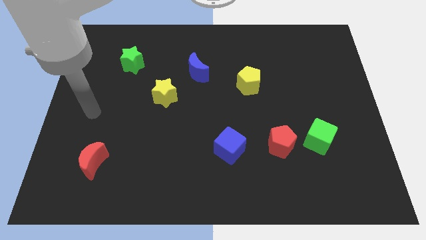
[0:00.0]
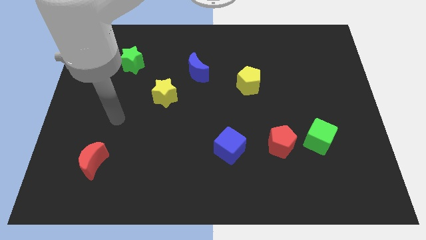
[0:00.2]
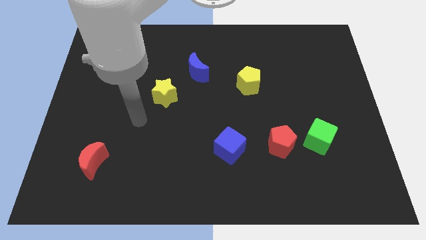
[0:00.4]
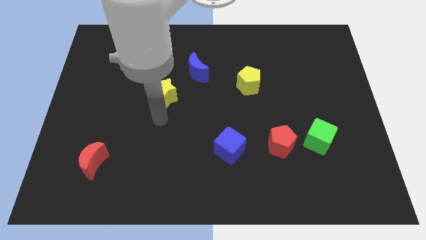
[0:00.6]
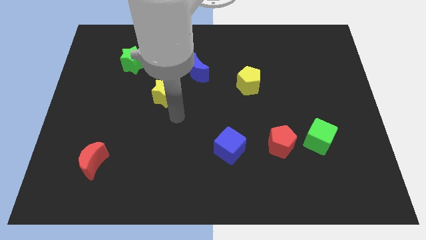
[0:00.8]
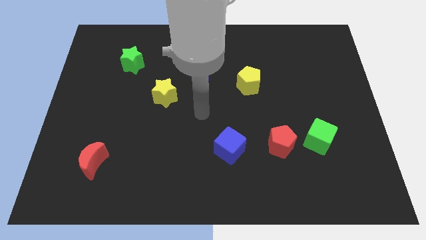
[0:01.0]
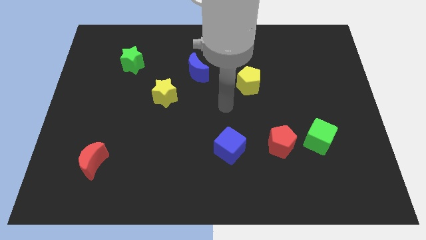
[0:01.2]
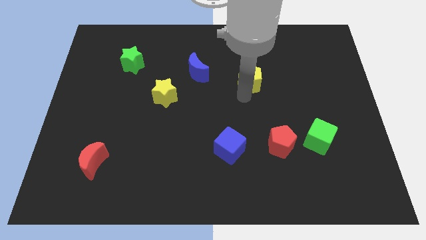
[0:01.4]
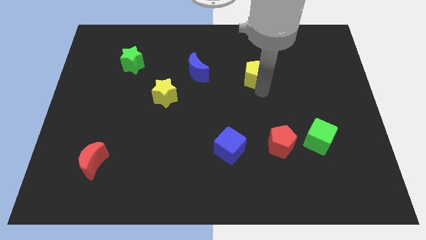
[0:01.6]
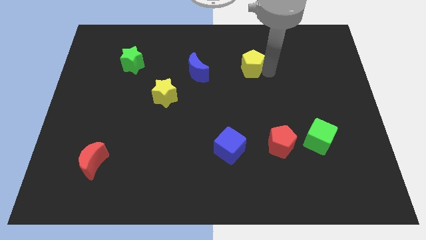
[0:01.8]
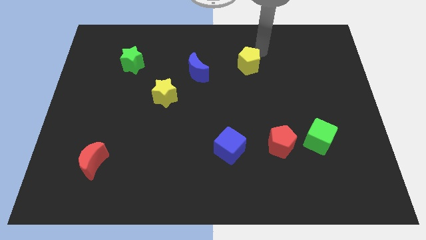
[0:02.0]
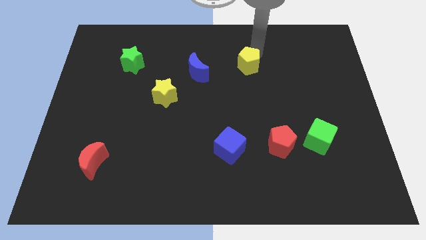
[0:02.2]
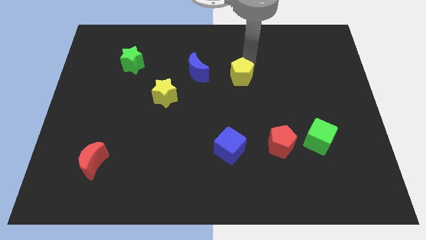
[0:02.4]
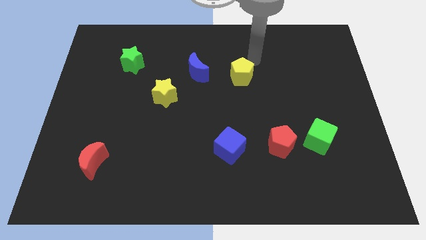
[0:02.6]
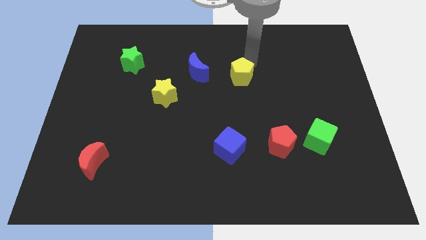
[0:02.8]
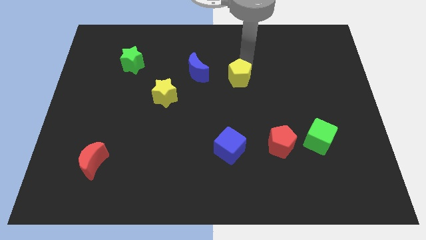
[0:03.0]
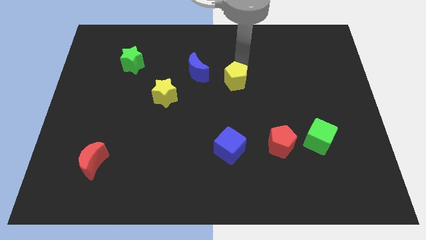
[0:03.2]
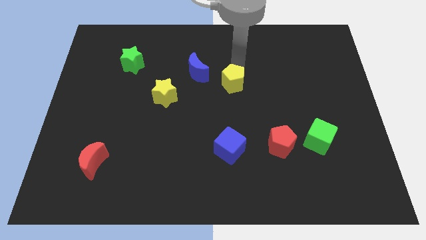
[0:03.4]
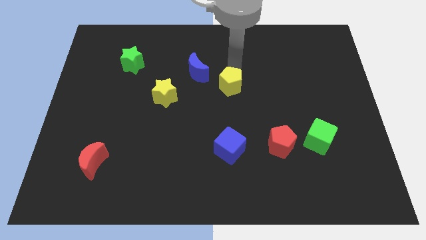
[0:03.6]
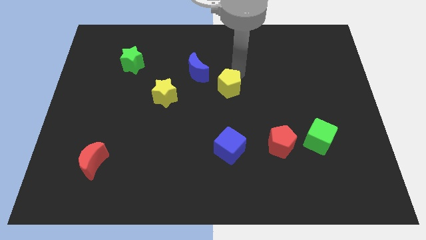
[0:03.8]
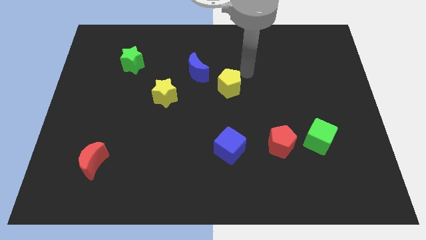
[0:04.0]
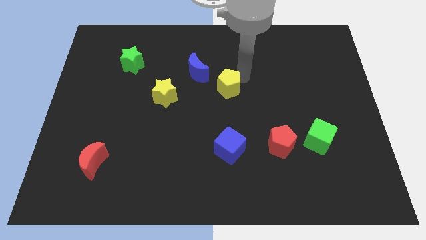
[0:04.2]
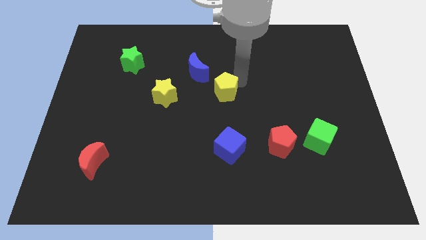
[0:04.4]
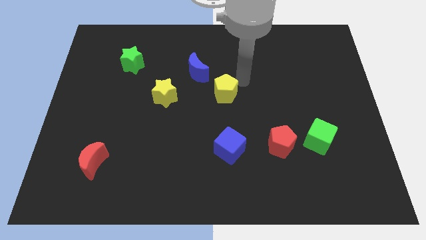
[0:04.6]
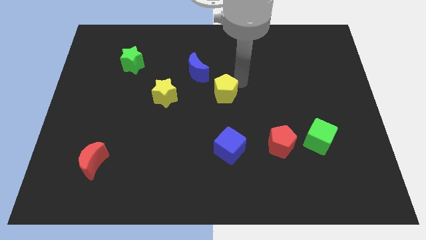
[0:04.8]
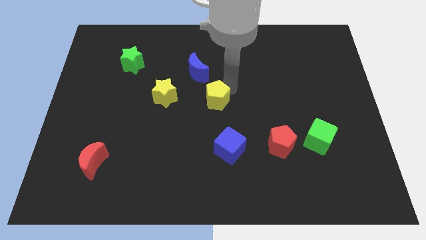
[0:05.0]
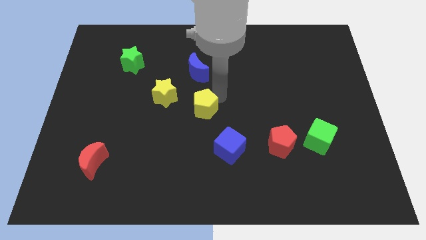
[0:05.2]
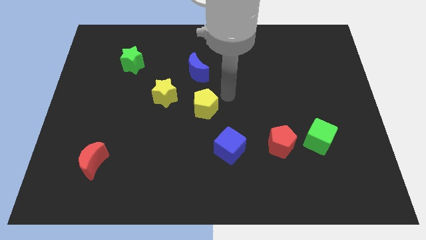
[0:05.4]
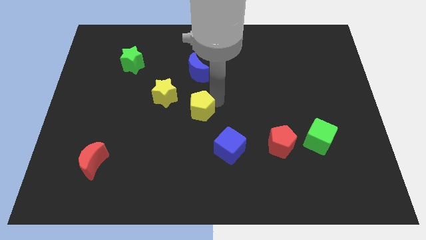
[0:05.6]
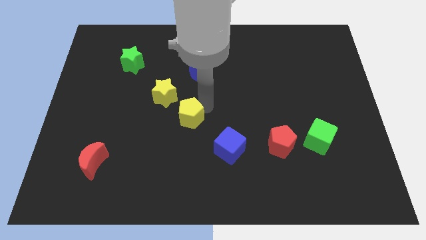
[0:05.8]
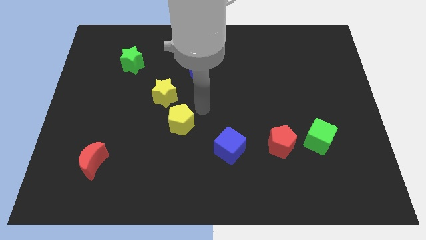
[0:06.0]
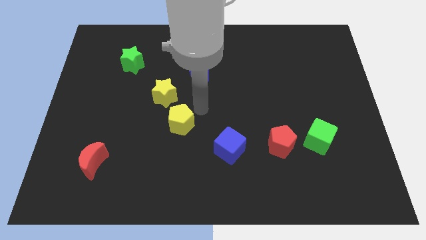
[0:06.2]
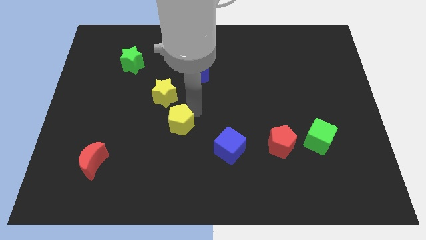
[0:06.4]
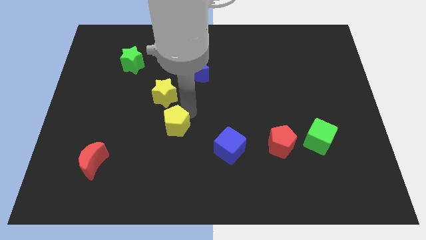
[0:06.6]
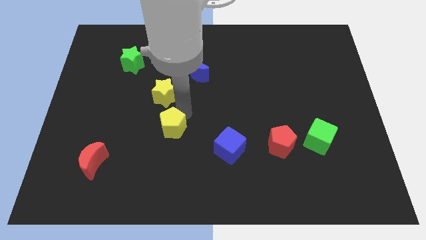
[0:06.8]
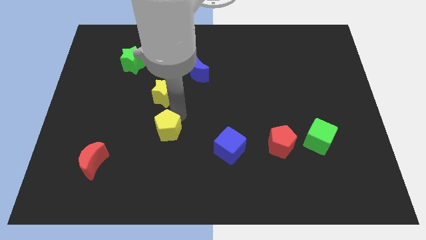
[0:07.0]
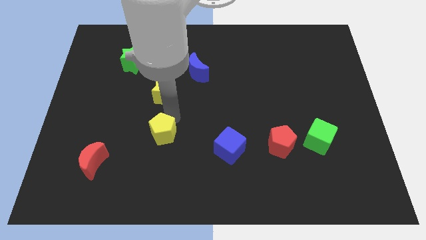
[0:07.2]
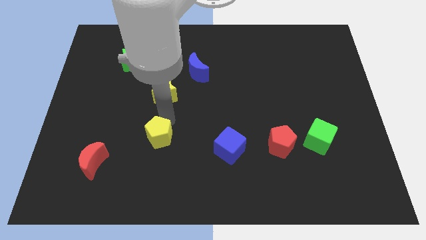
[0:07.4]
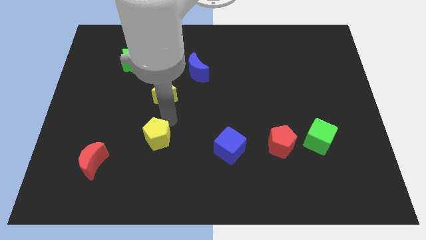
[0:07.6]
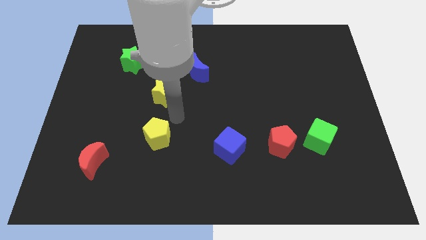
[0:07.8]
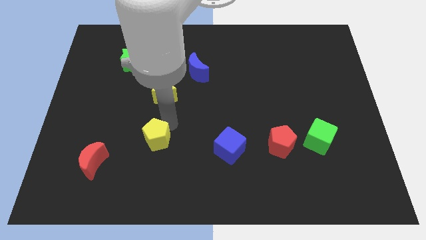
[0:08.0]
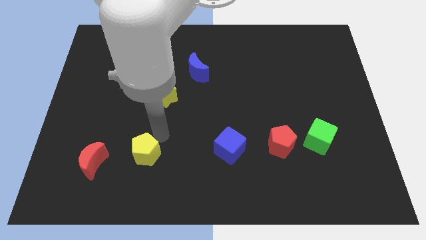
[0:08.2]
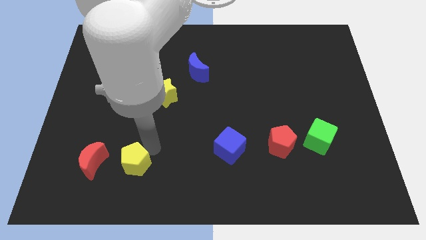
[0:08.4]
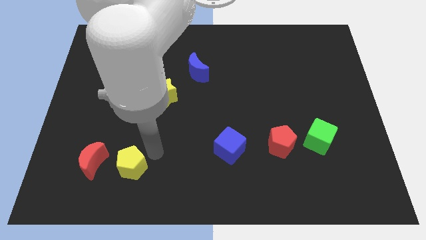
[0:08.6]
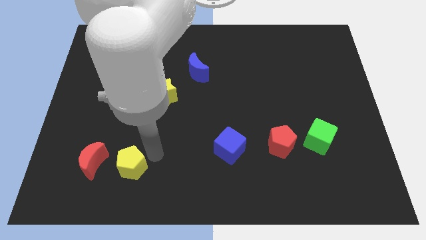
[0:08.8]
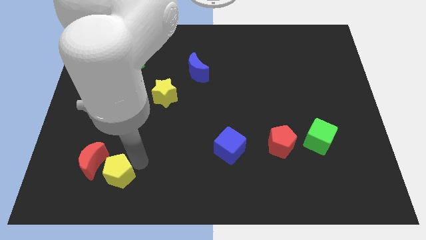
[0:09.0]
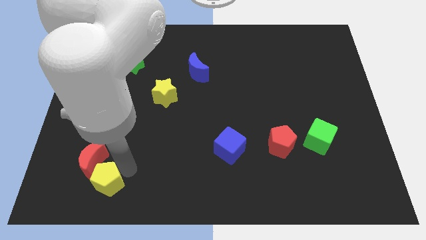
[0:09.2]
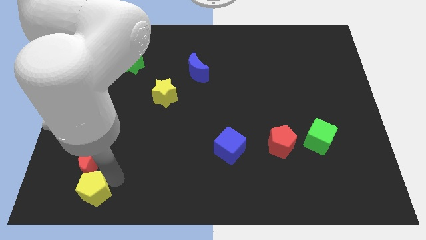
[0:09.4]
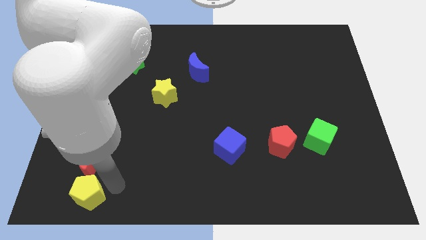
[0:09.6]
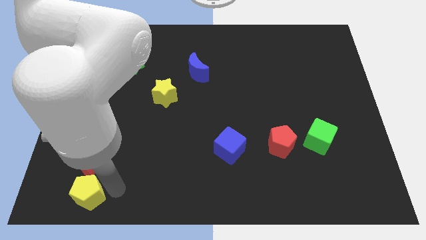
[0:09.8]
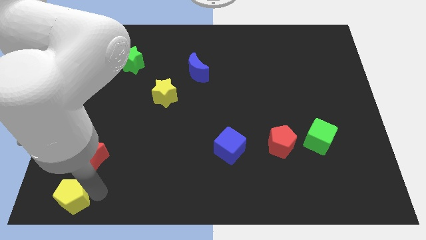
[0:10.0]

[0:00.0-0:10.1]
slide the yellow pentagon to the lower left corner

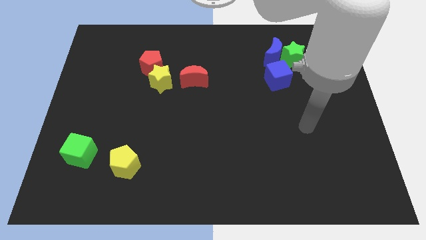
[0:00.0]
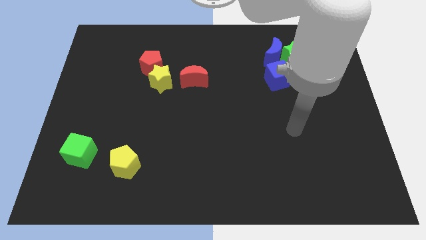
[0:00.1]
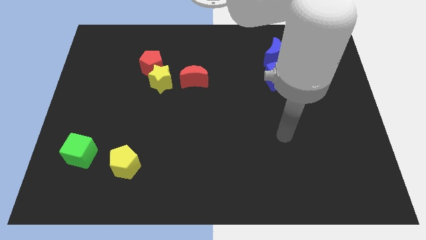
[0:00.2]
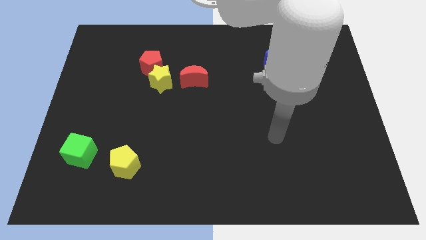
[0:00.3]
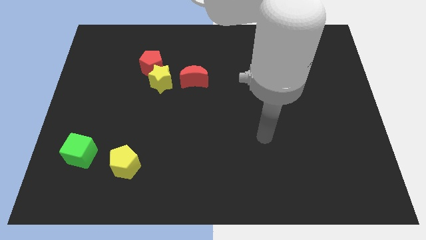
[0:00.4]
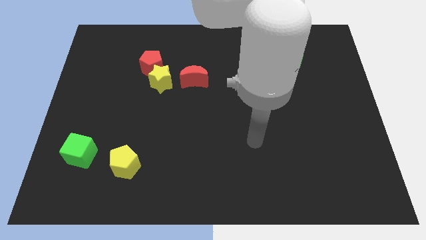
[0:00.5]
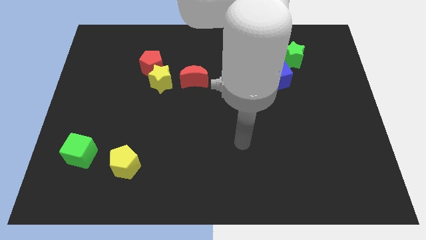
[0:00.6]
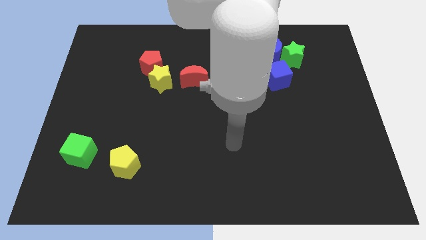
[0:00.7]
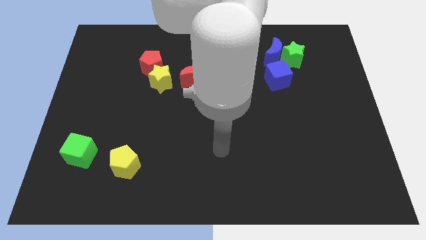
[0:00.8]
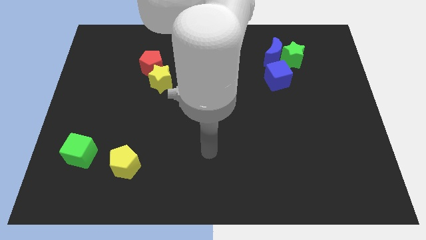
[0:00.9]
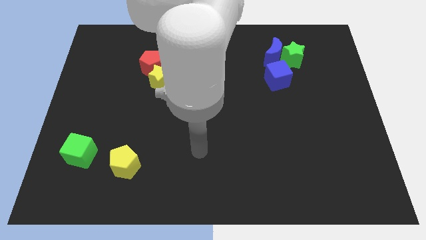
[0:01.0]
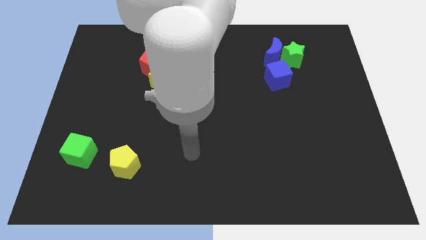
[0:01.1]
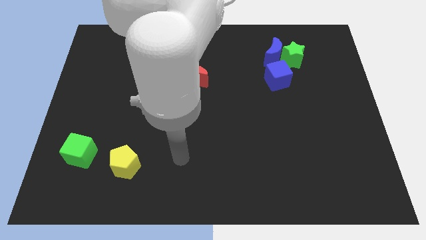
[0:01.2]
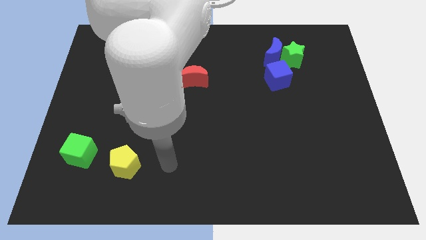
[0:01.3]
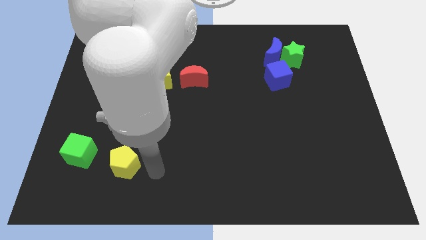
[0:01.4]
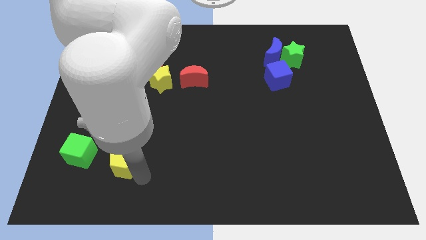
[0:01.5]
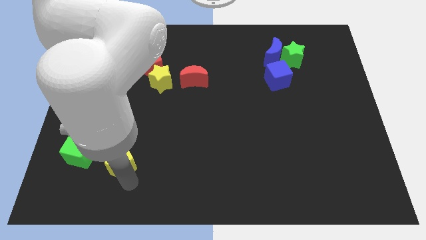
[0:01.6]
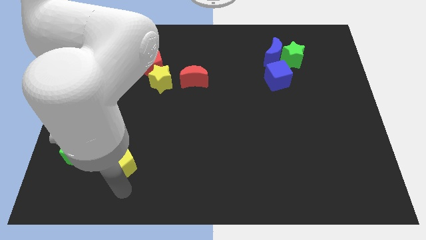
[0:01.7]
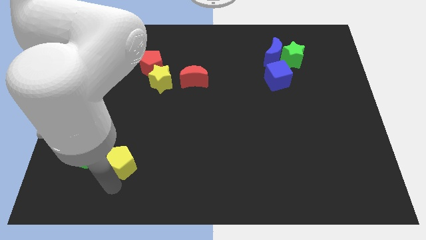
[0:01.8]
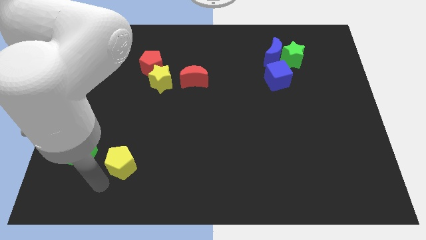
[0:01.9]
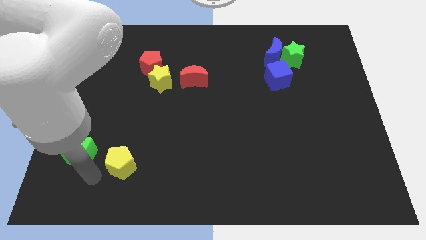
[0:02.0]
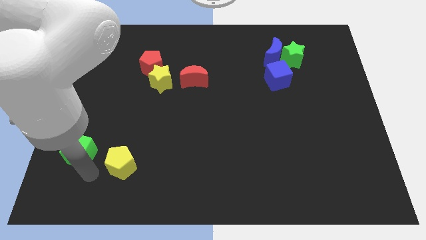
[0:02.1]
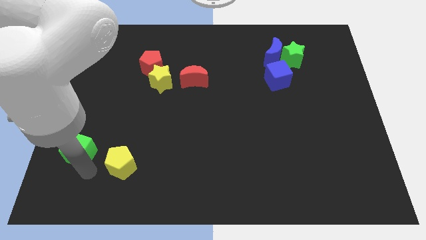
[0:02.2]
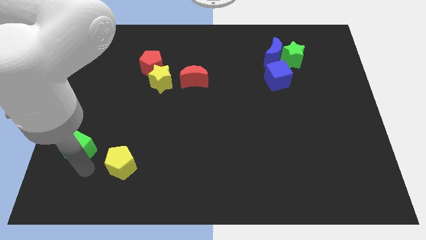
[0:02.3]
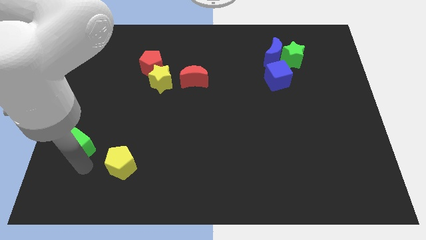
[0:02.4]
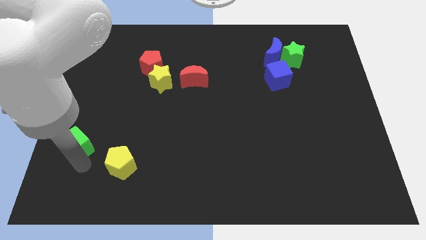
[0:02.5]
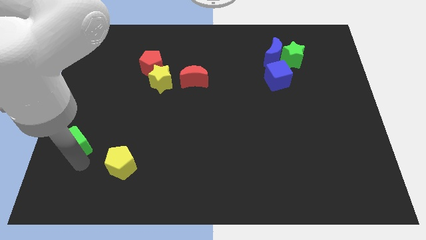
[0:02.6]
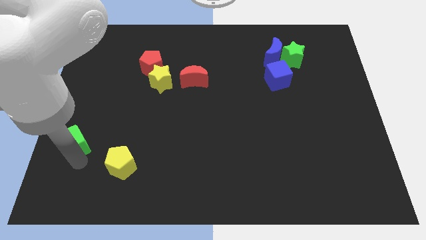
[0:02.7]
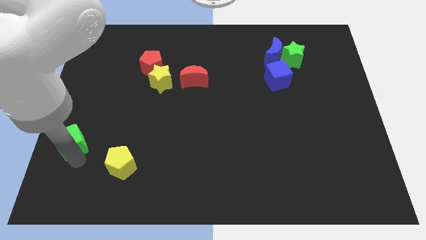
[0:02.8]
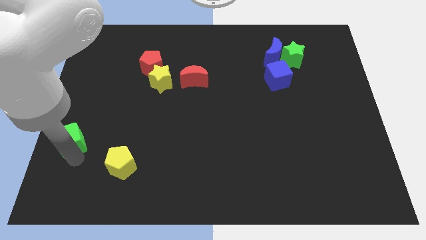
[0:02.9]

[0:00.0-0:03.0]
put the green cube to the left side
